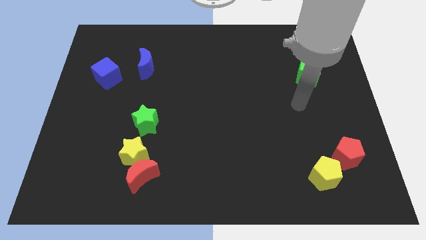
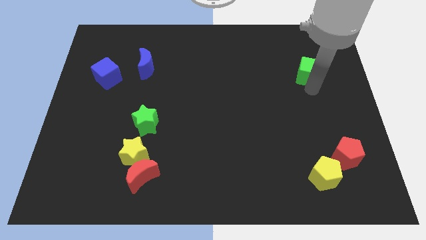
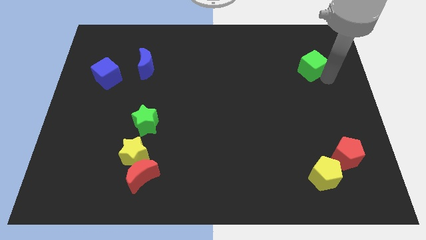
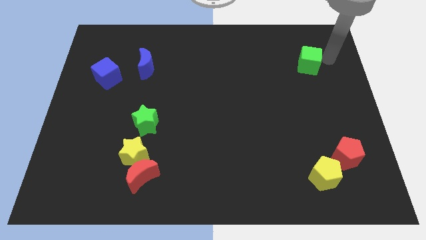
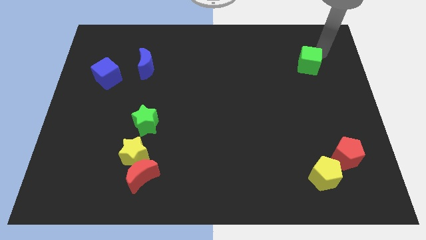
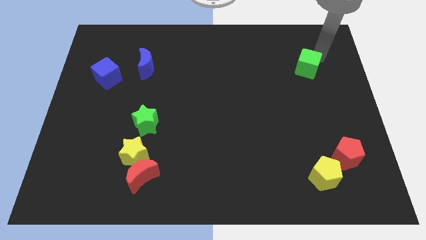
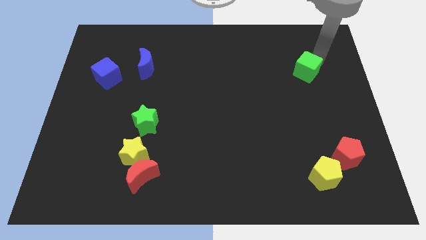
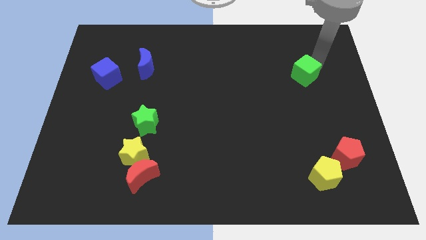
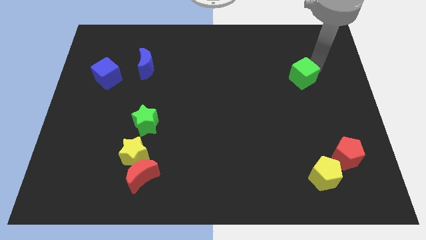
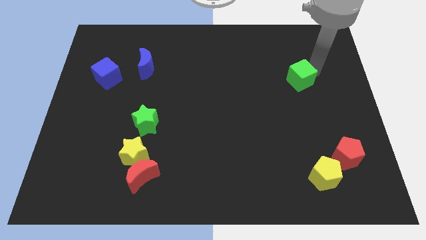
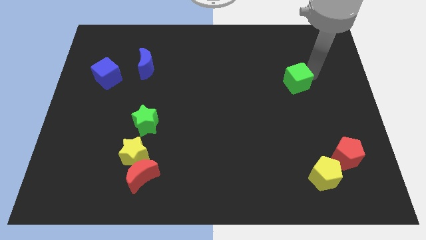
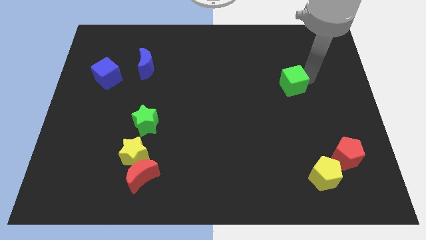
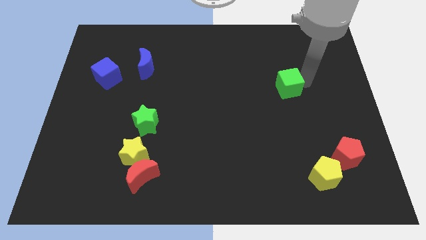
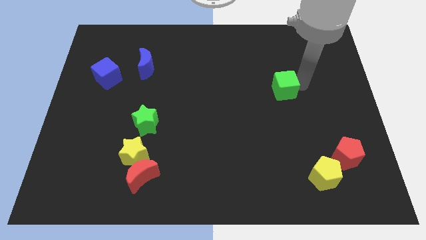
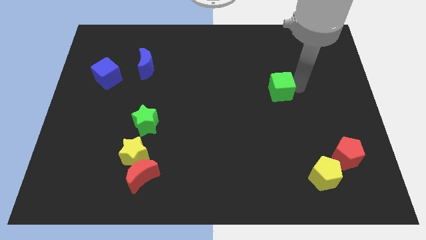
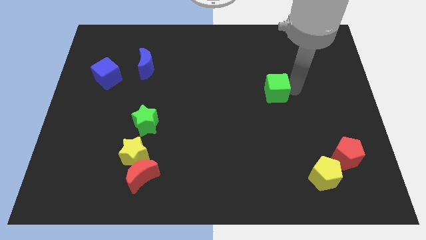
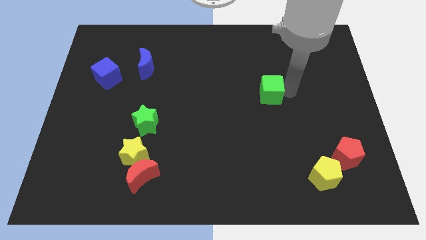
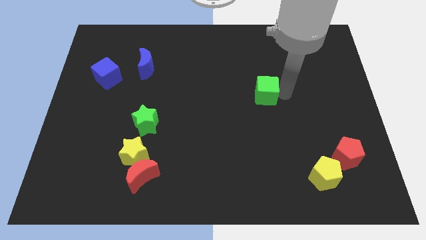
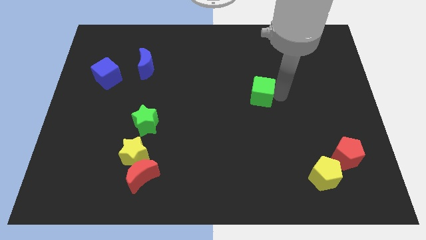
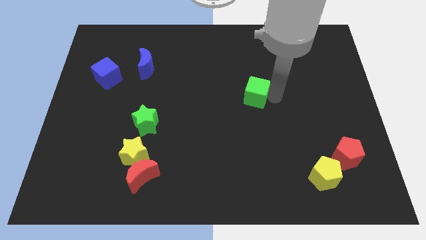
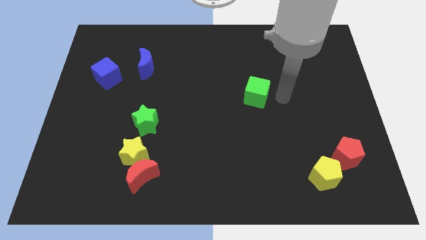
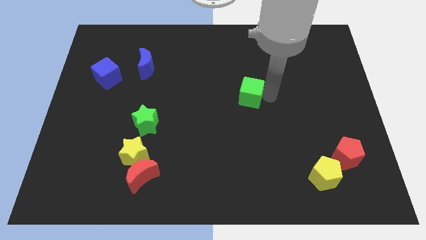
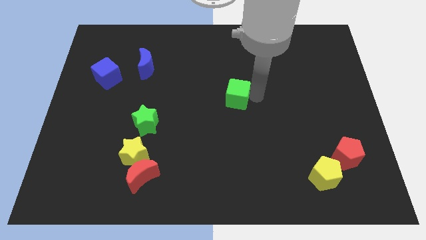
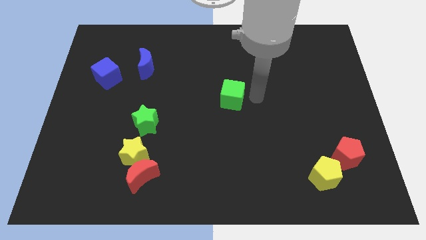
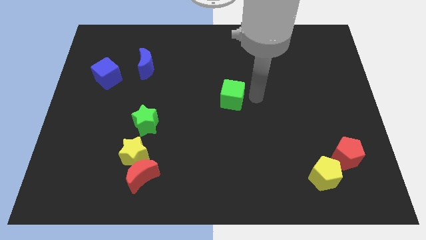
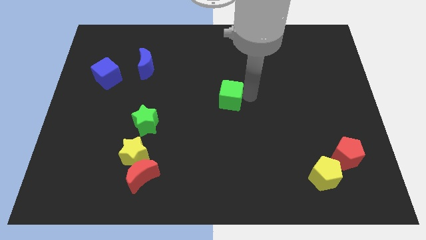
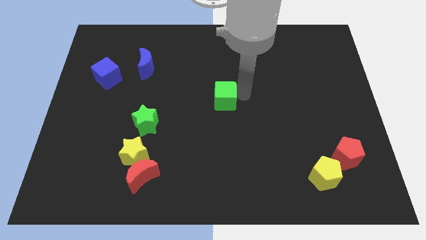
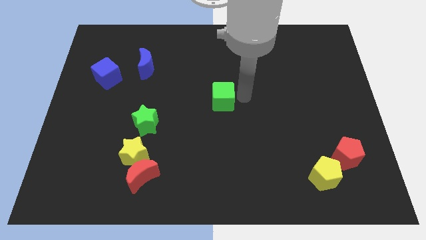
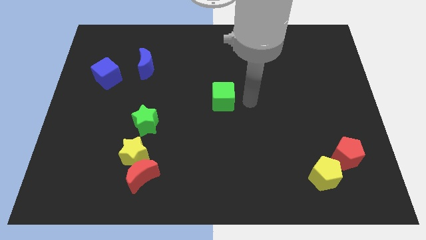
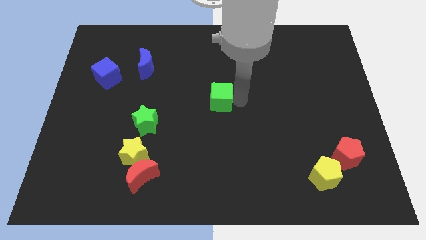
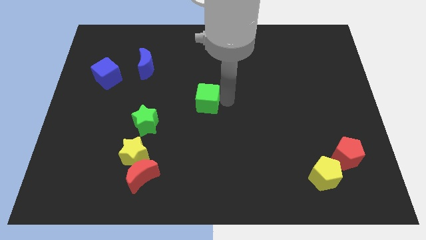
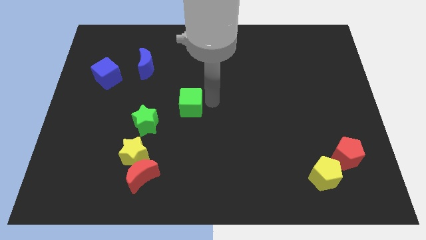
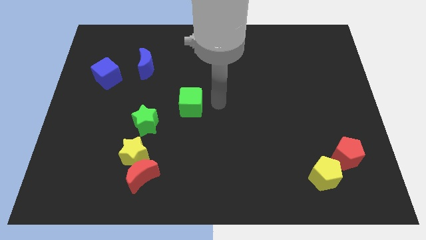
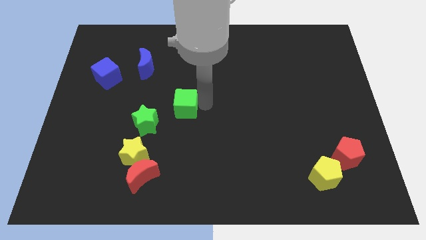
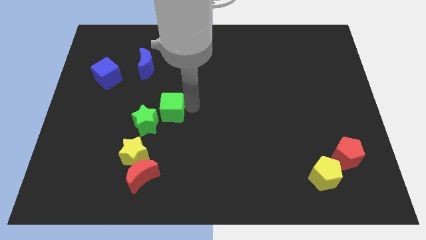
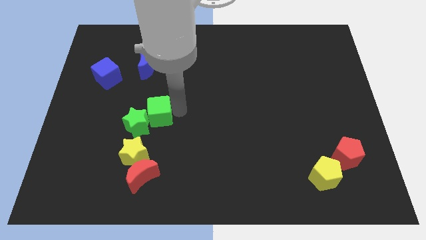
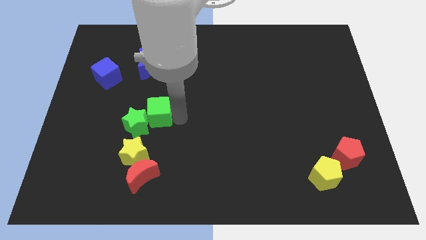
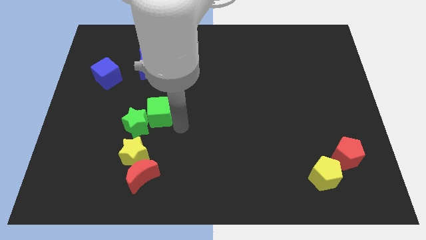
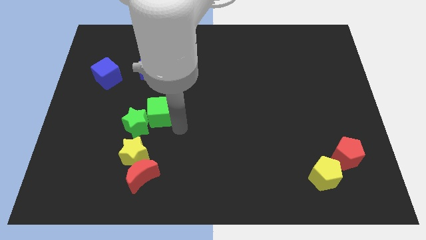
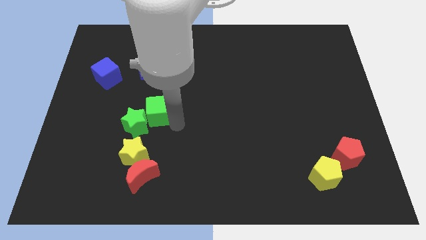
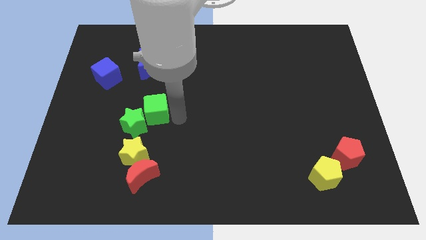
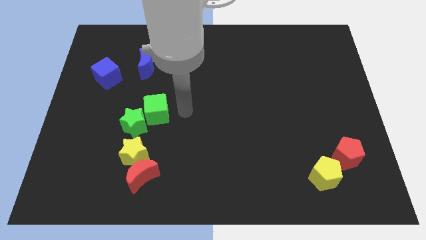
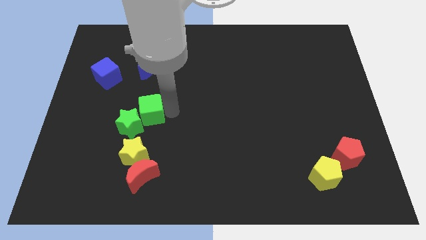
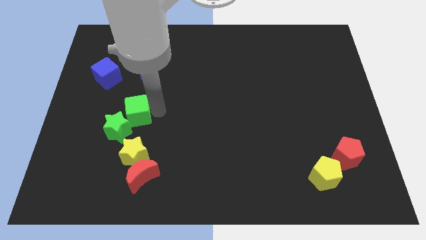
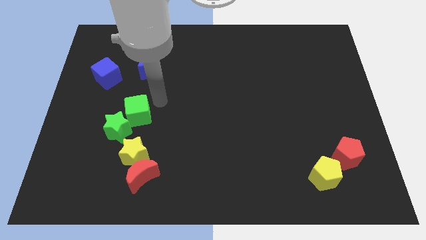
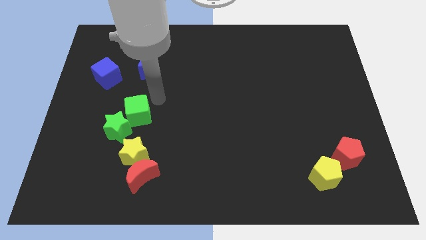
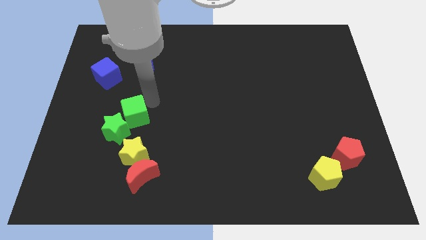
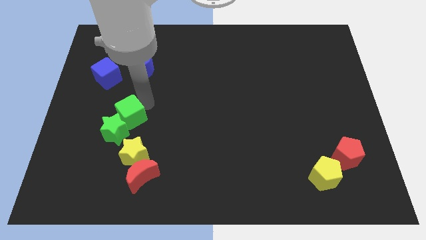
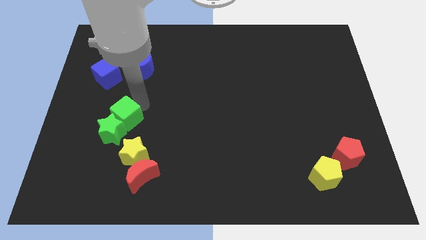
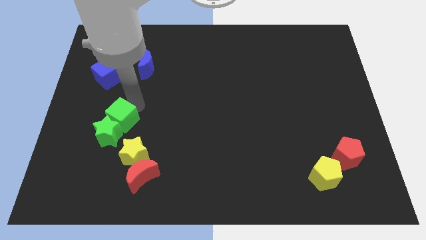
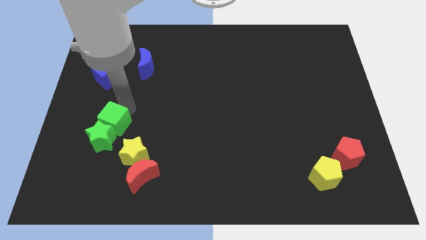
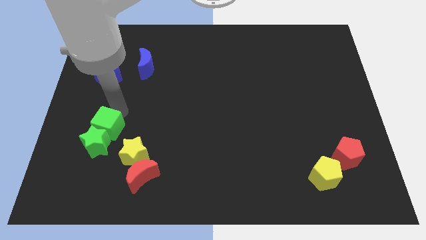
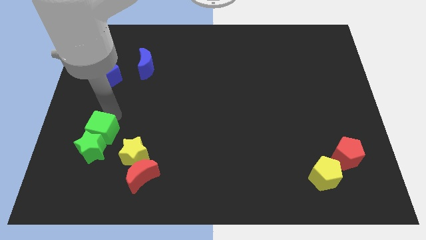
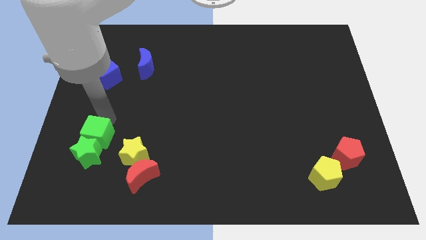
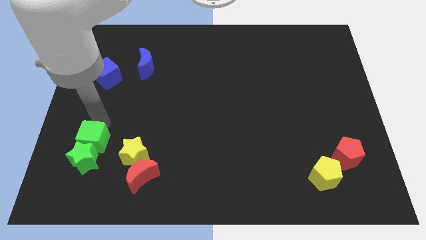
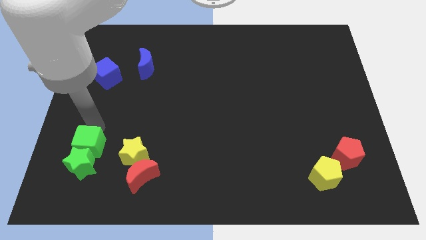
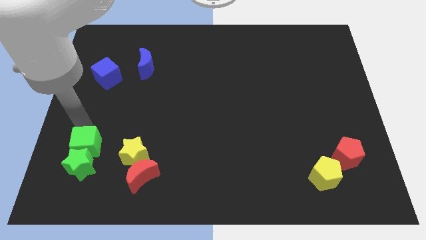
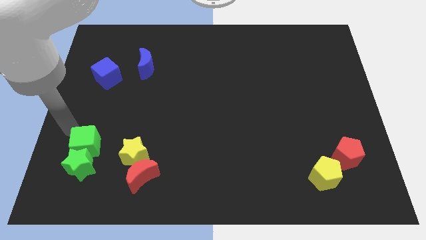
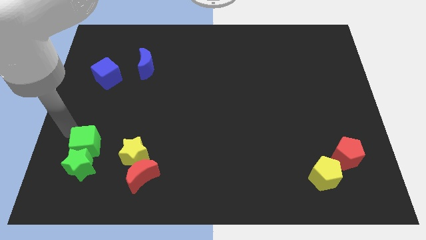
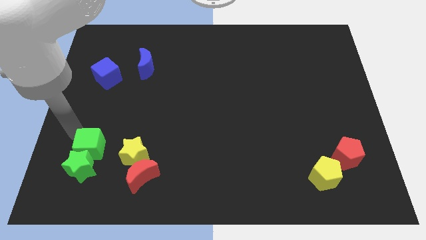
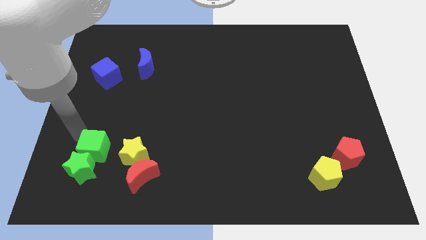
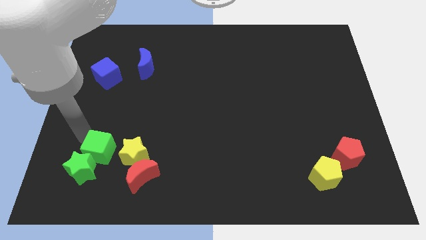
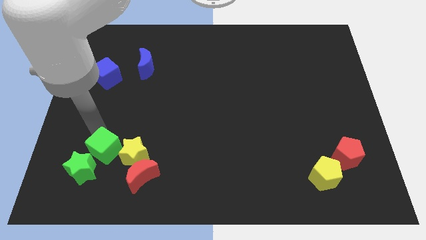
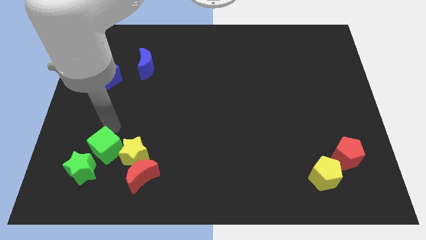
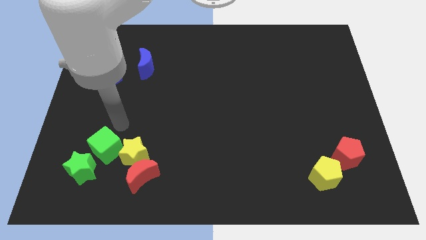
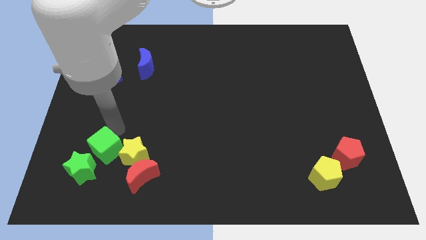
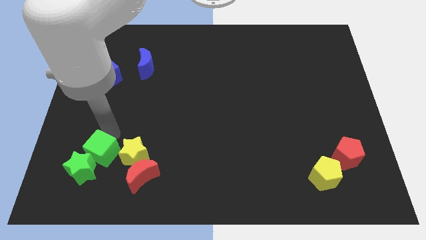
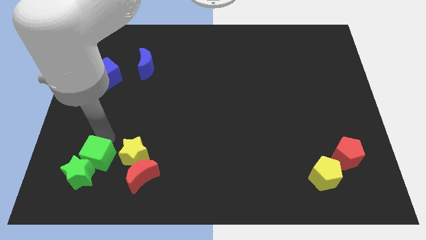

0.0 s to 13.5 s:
move the green cube to the left of the red moon
